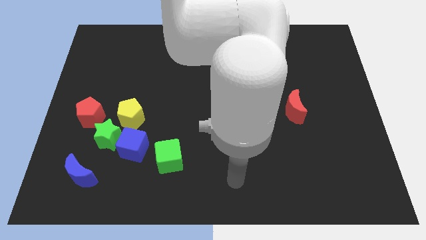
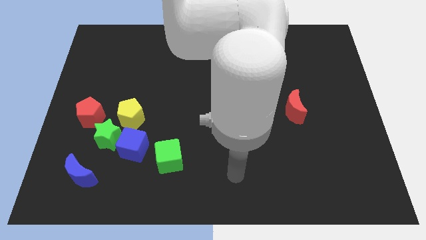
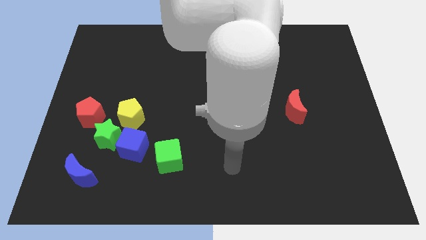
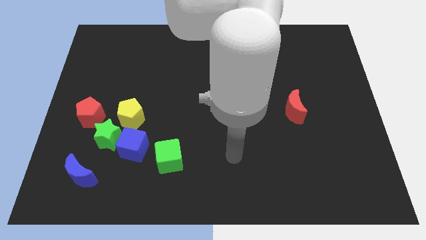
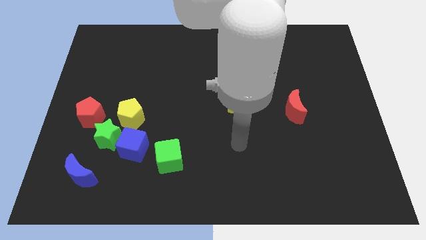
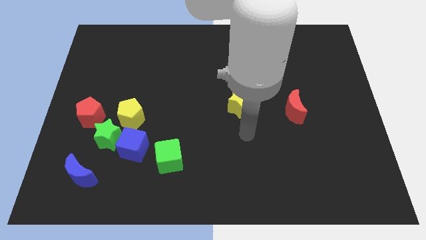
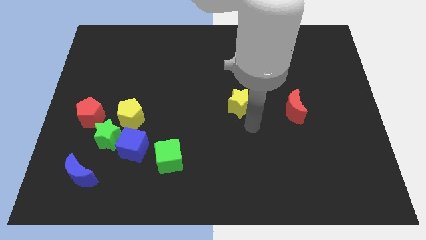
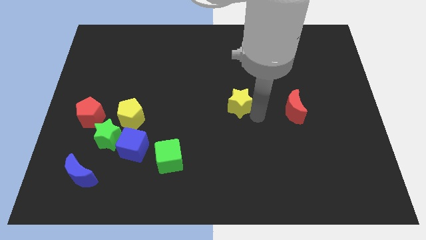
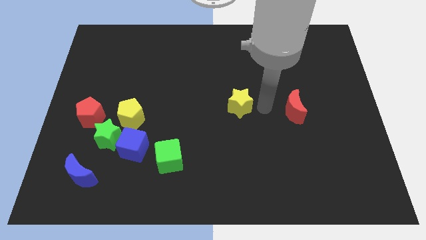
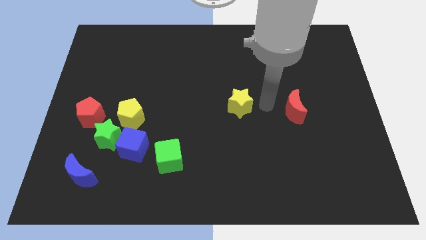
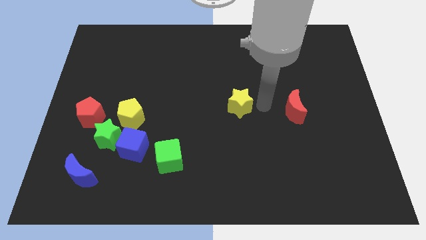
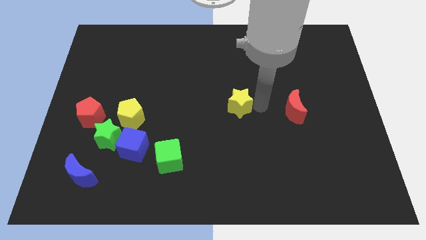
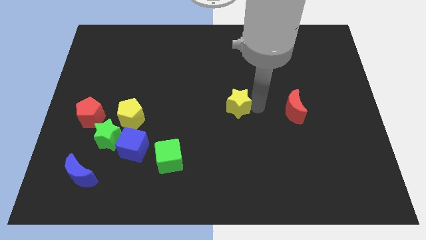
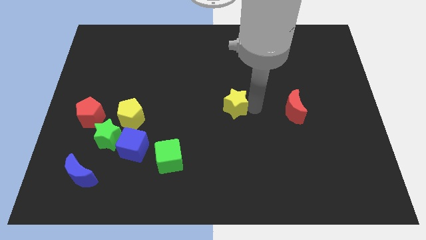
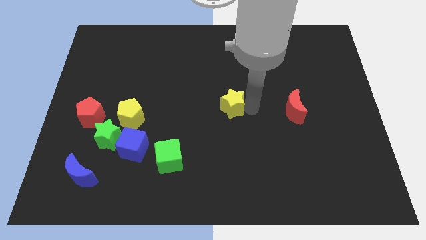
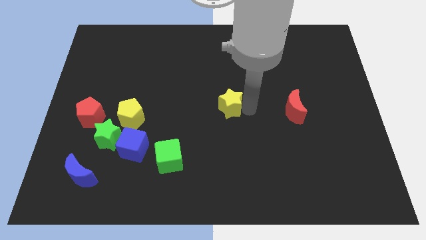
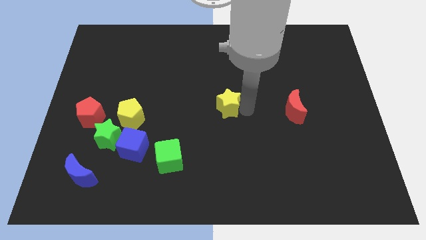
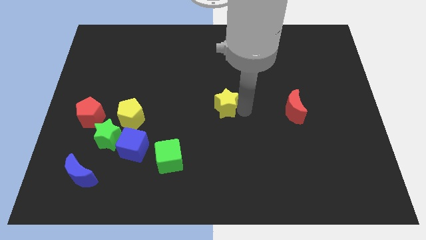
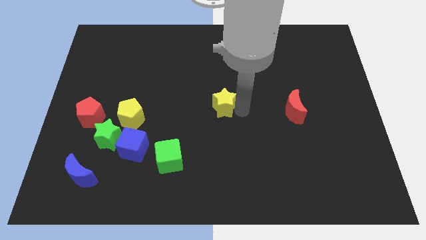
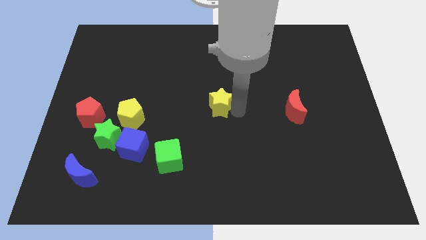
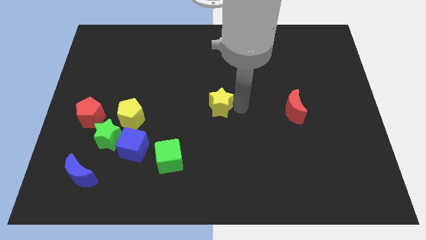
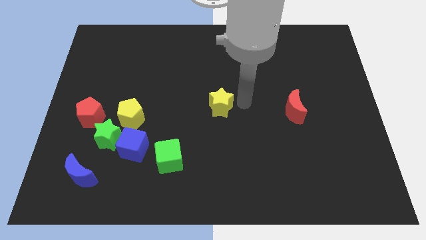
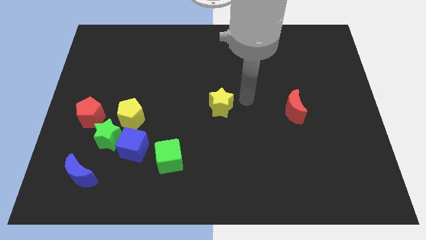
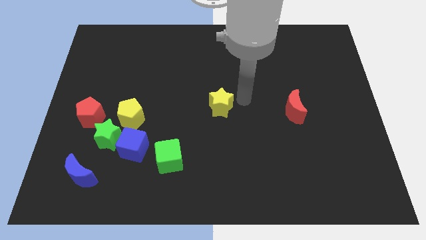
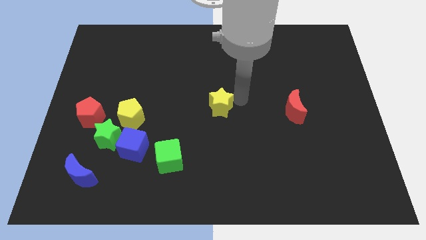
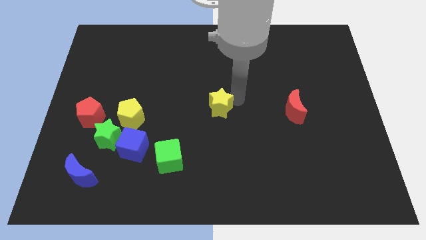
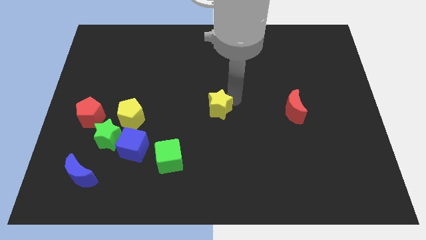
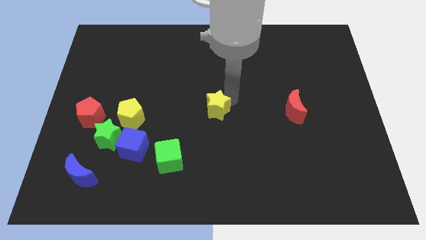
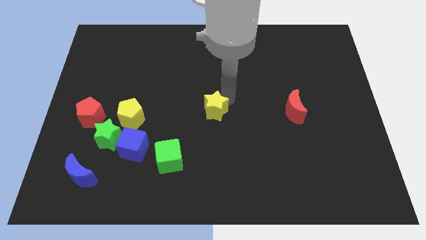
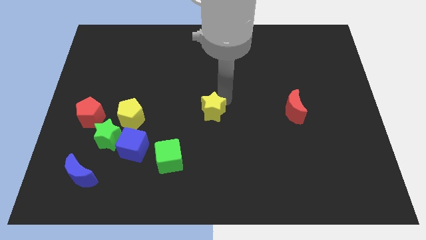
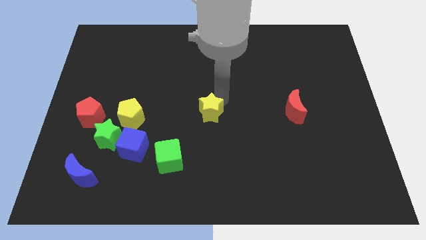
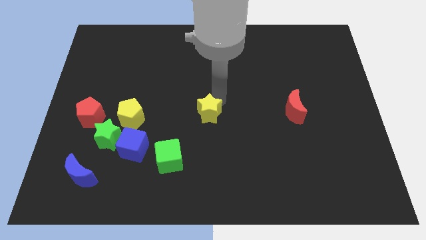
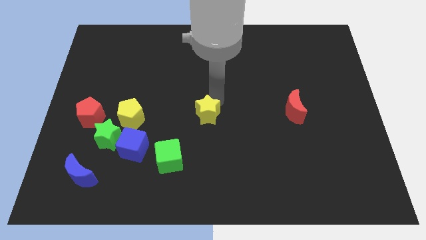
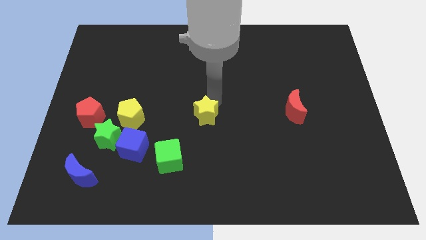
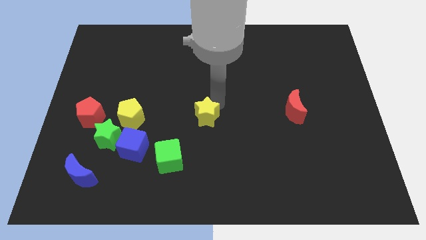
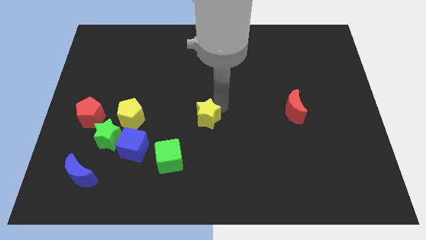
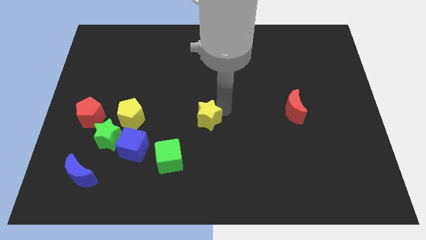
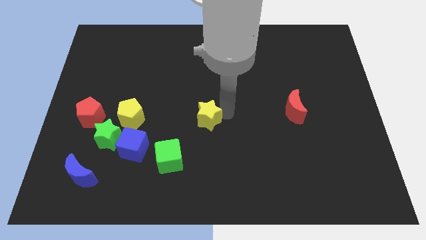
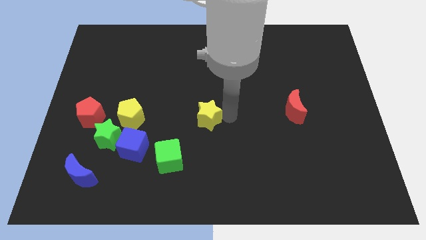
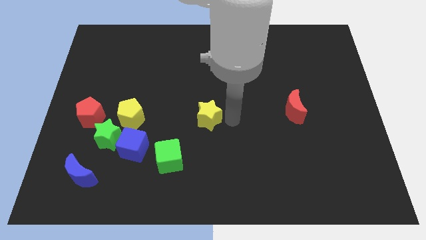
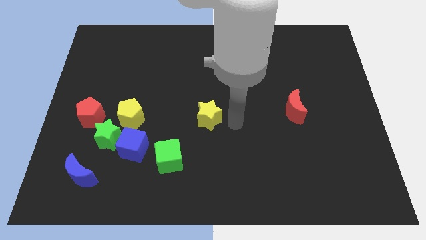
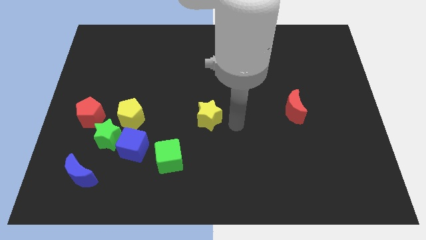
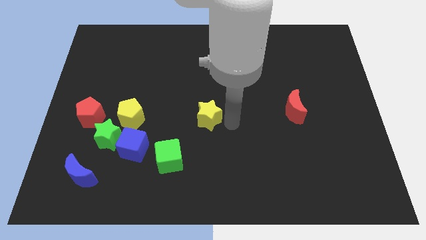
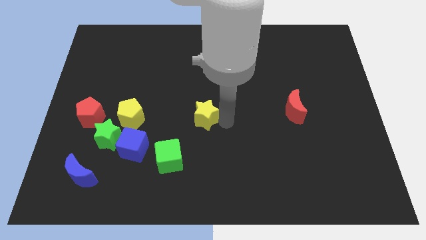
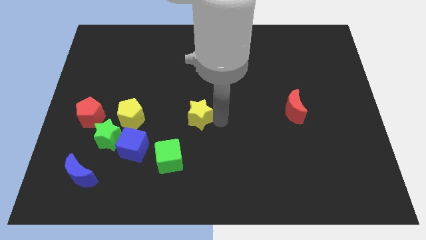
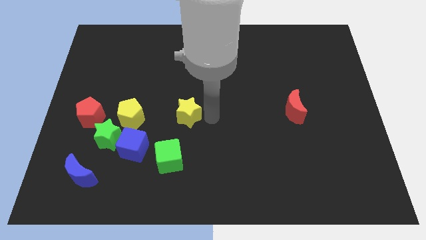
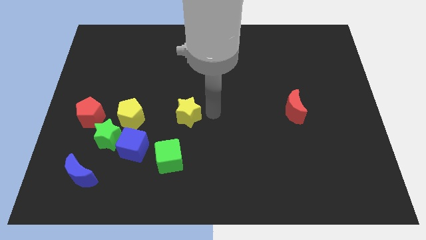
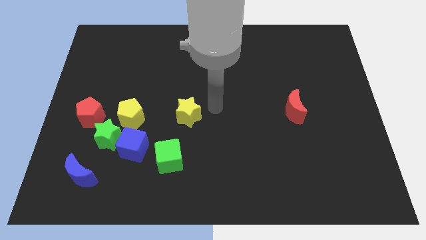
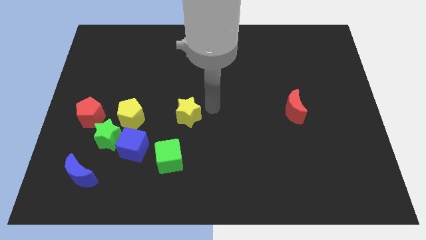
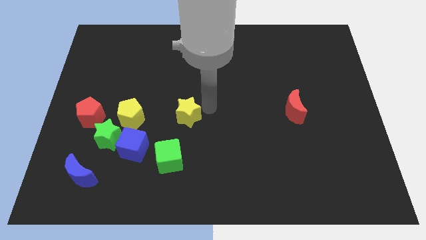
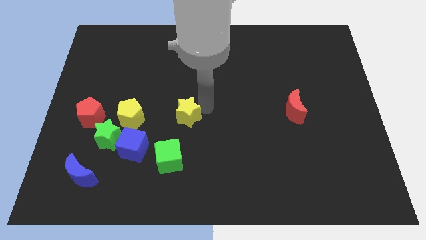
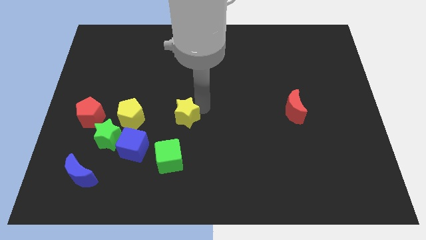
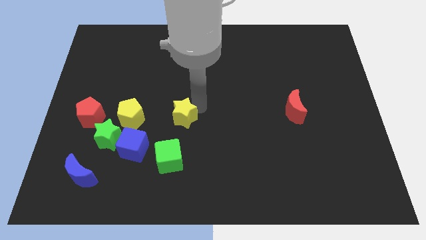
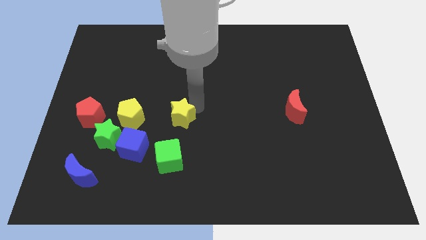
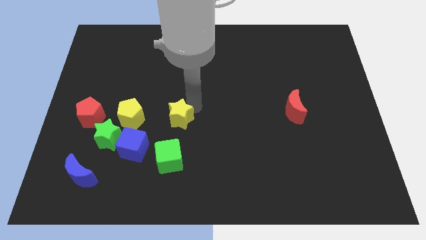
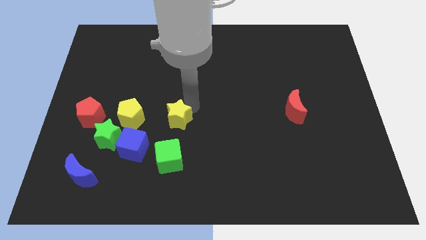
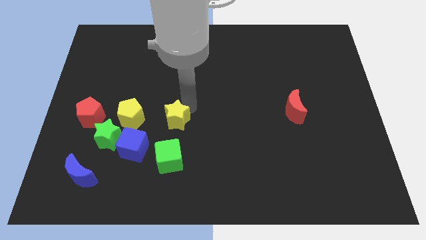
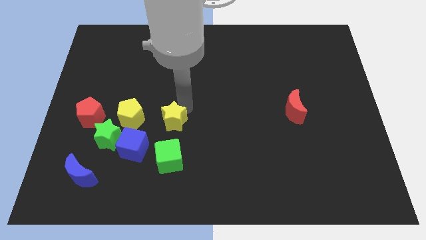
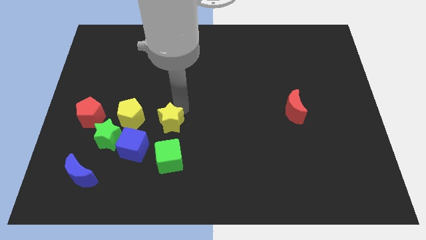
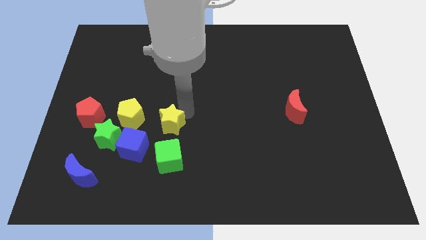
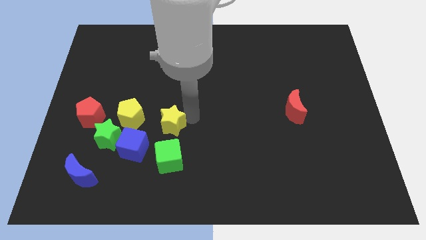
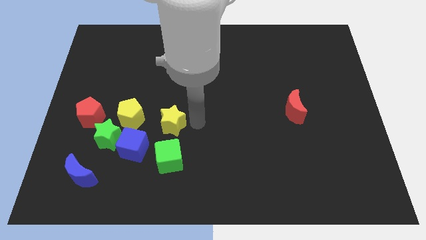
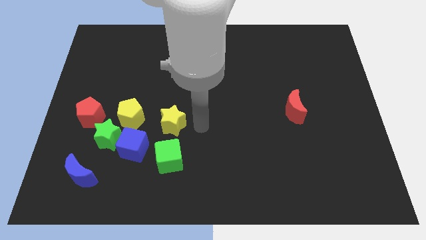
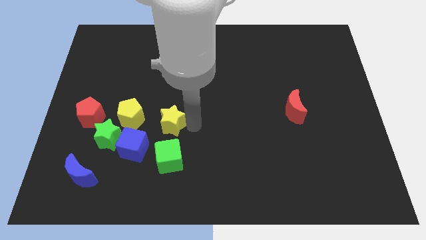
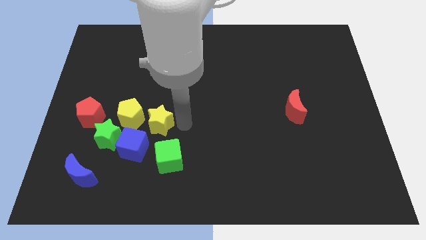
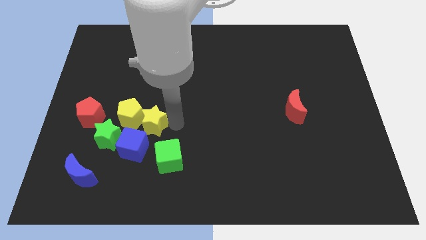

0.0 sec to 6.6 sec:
put the yellow star next to the yellow pentagon

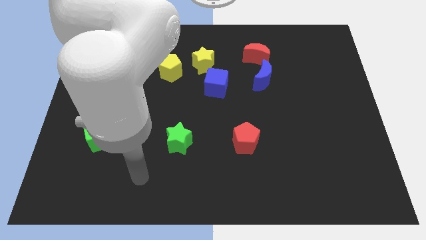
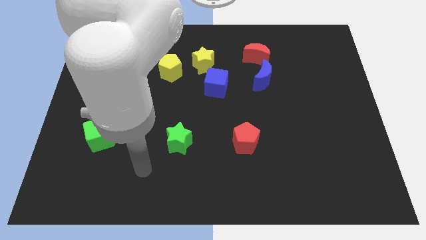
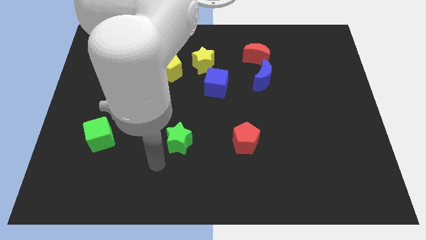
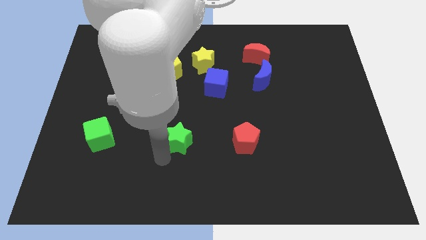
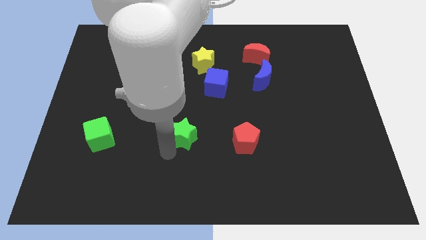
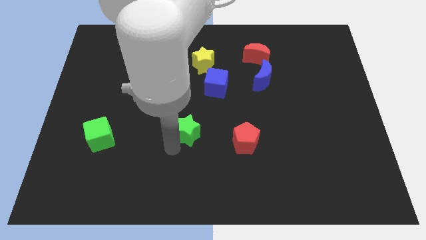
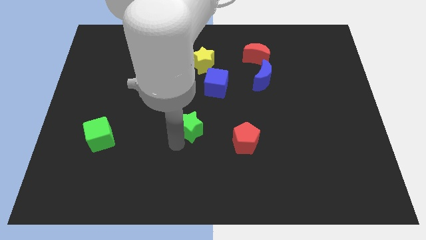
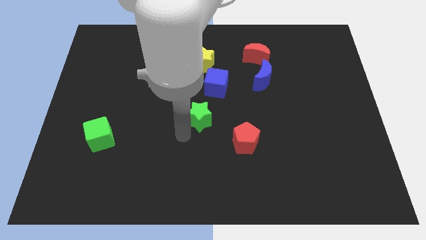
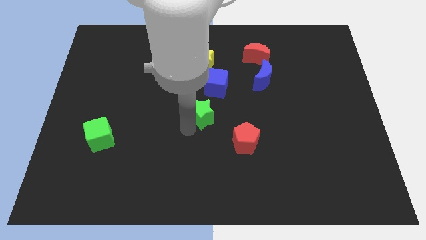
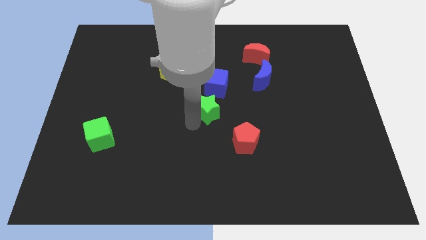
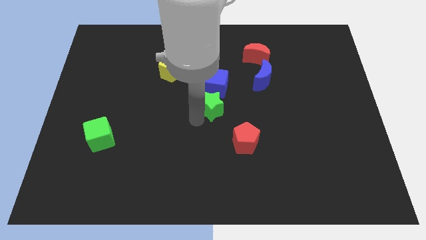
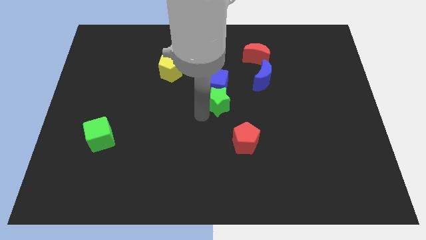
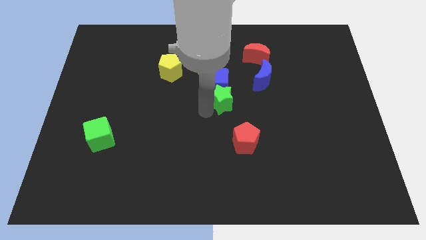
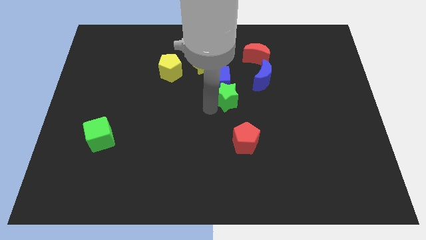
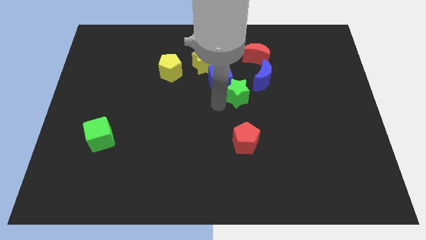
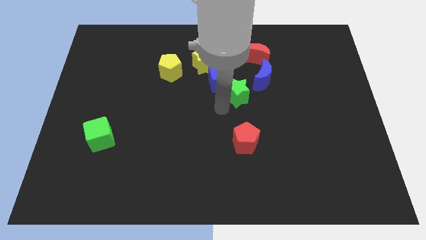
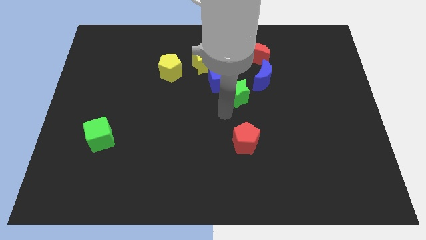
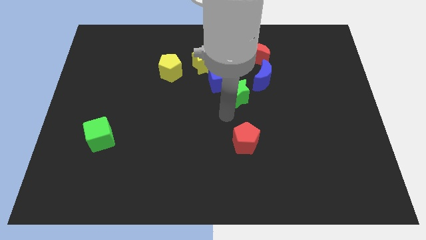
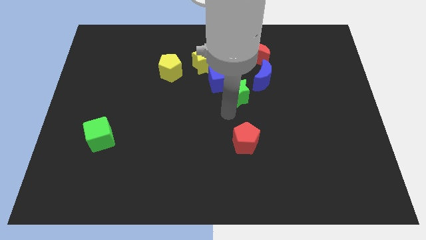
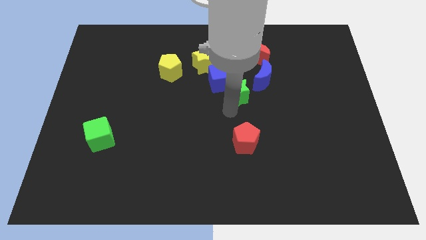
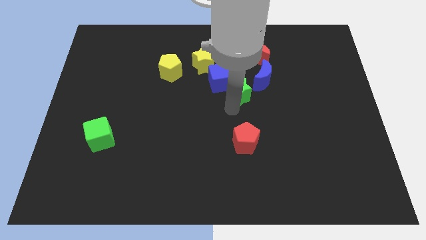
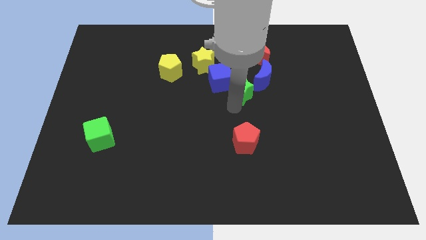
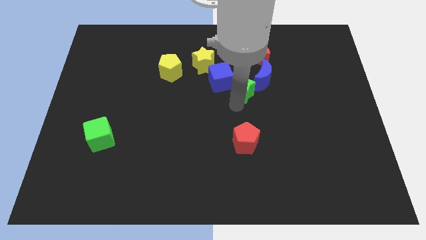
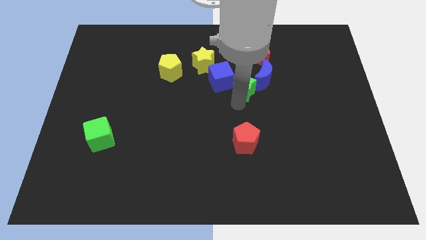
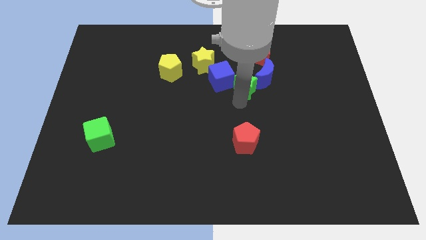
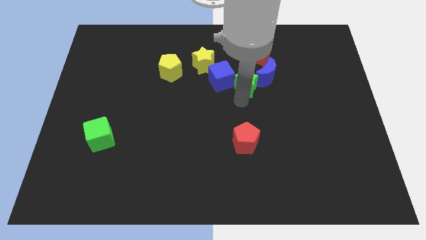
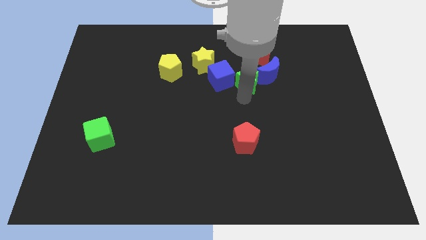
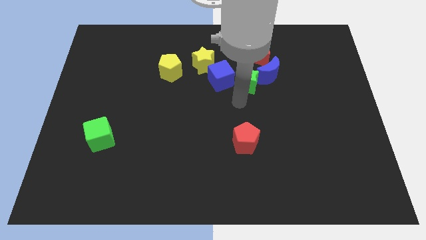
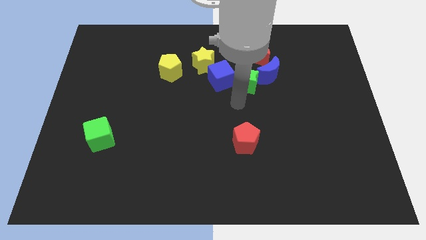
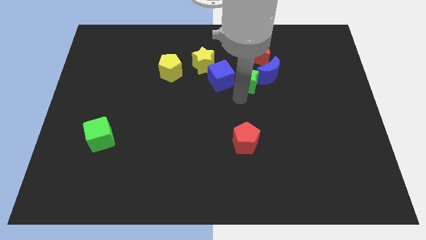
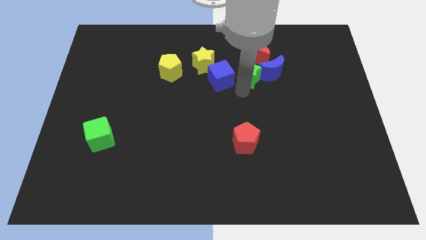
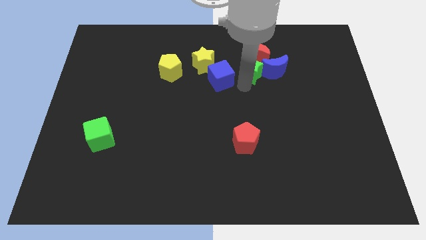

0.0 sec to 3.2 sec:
put the green star next to the red moon
